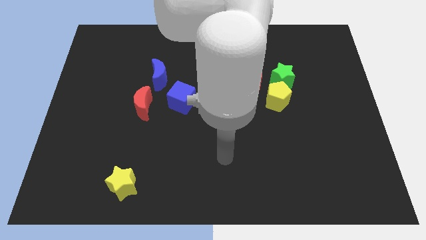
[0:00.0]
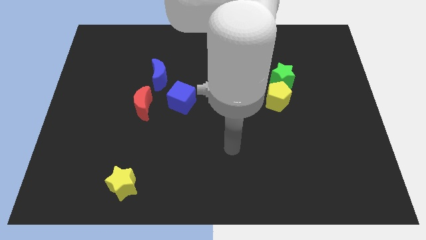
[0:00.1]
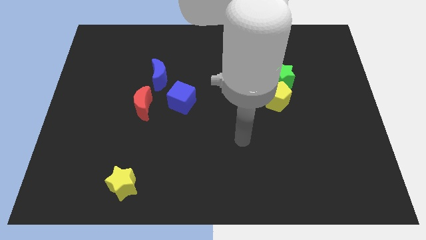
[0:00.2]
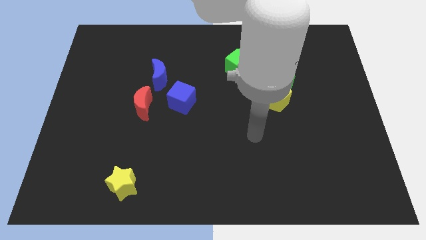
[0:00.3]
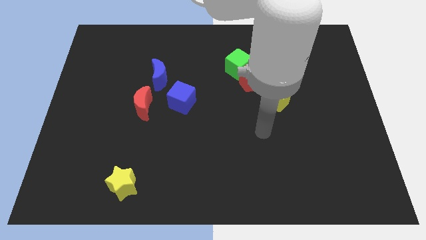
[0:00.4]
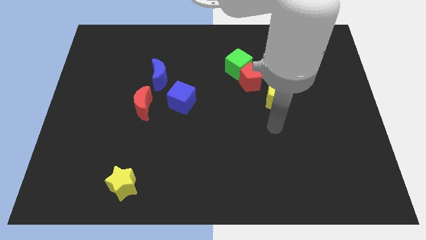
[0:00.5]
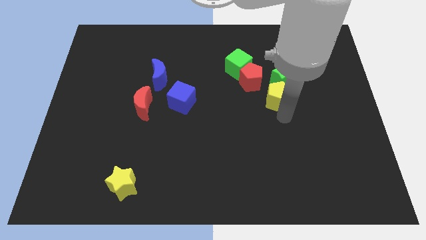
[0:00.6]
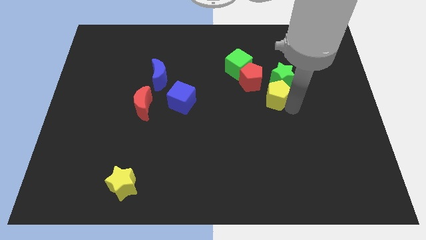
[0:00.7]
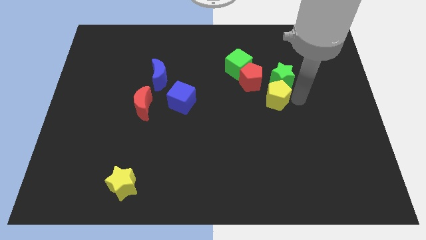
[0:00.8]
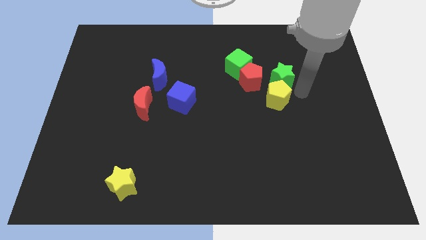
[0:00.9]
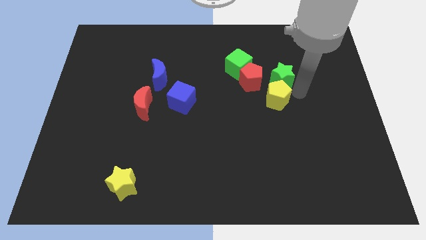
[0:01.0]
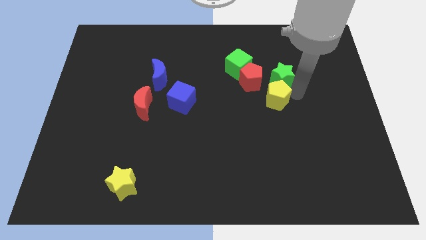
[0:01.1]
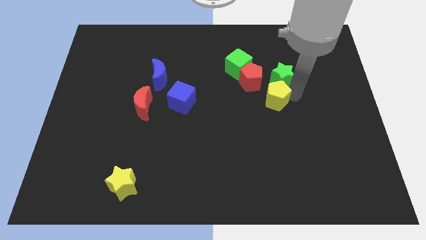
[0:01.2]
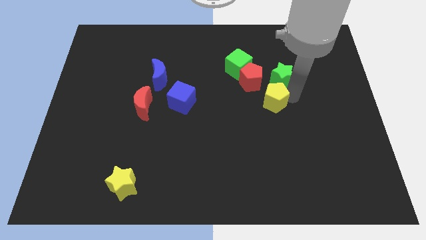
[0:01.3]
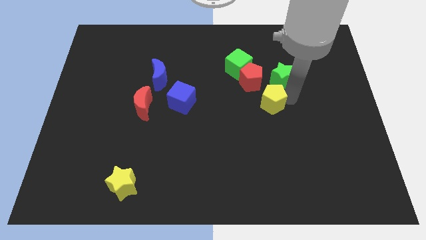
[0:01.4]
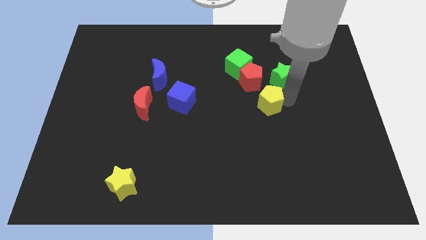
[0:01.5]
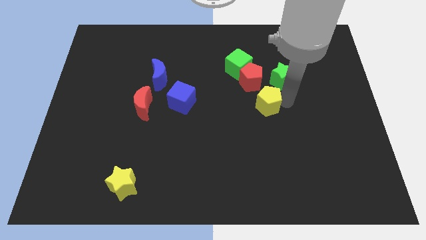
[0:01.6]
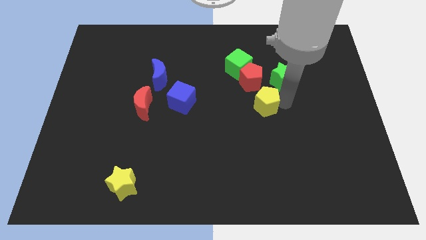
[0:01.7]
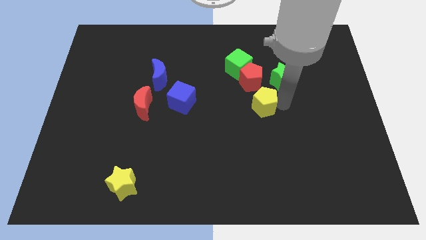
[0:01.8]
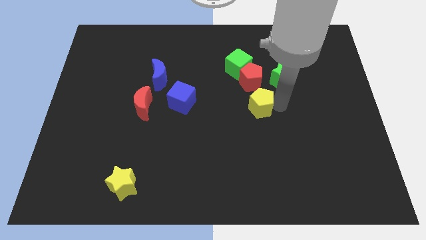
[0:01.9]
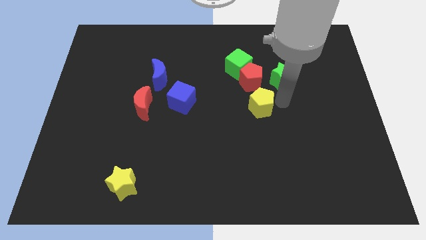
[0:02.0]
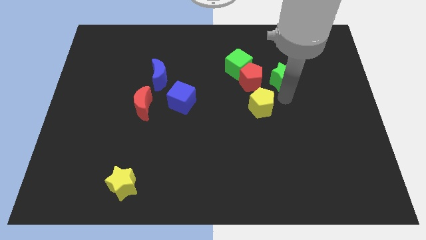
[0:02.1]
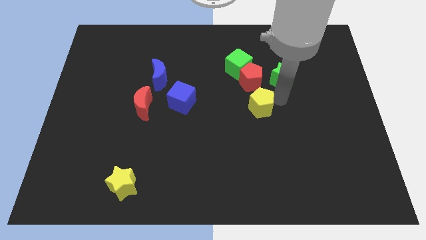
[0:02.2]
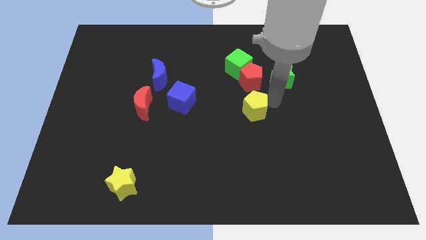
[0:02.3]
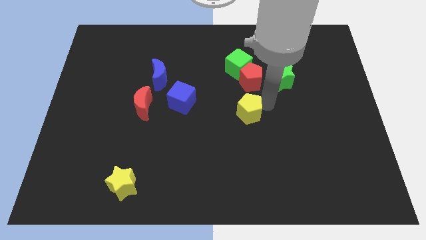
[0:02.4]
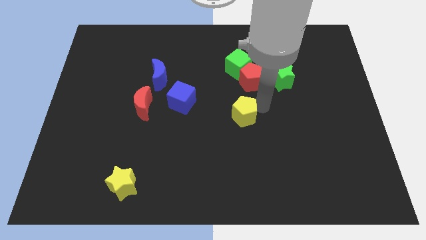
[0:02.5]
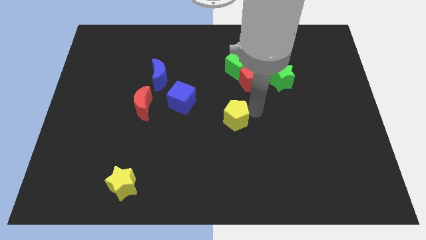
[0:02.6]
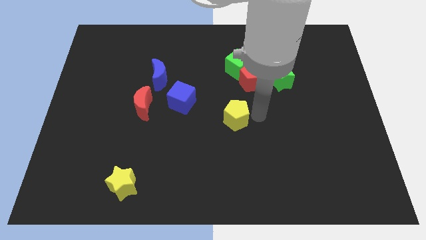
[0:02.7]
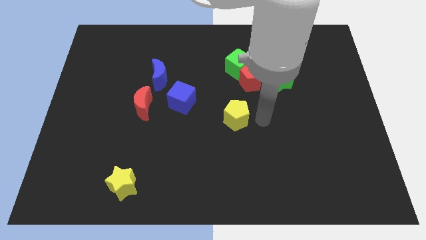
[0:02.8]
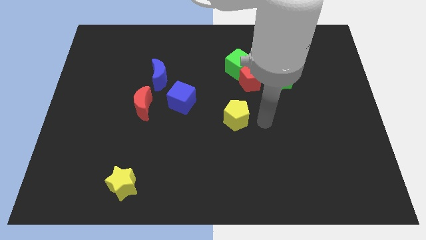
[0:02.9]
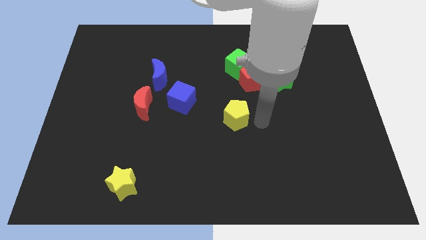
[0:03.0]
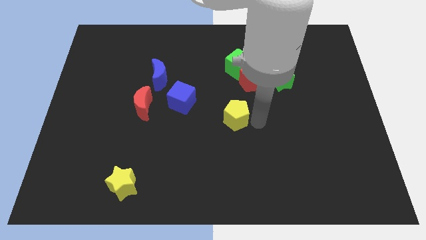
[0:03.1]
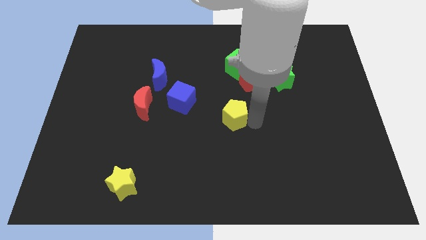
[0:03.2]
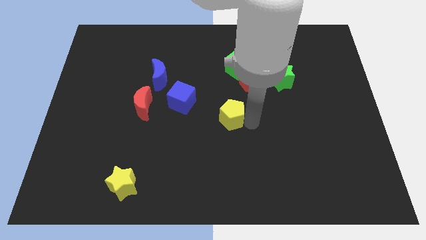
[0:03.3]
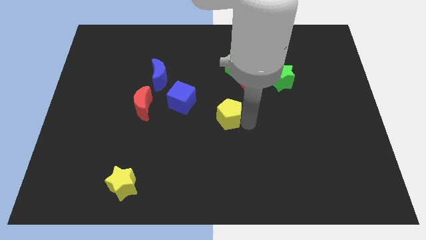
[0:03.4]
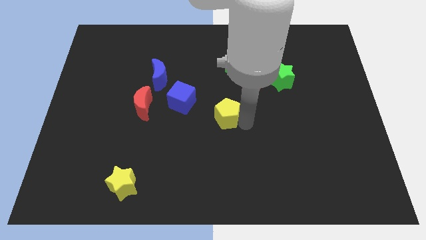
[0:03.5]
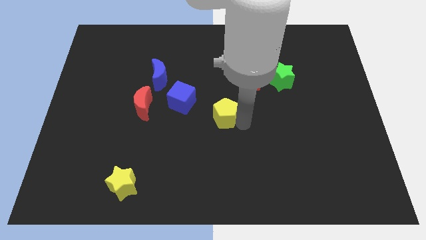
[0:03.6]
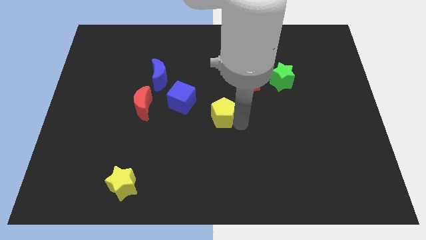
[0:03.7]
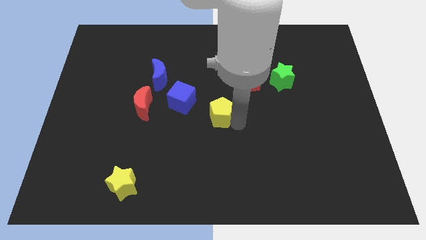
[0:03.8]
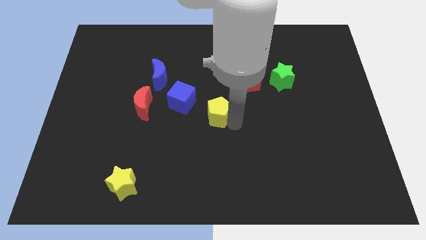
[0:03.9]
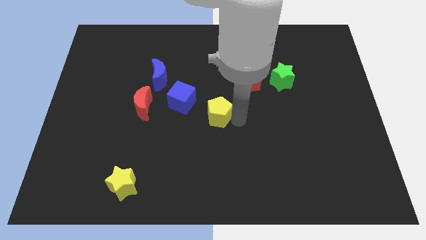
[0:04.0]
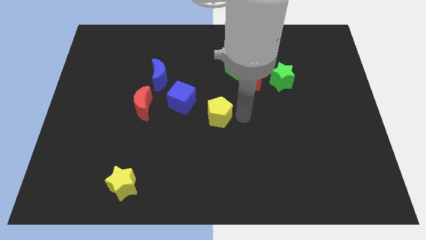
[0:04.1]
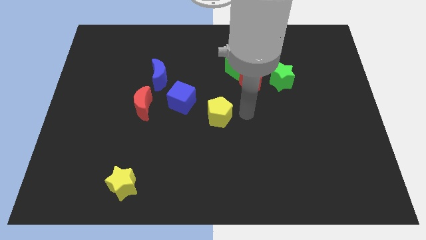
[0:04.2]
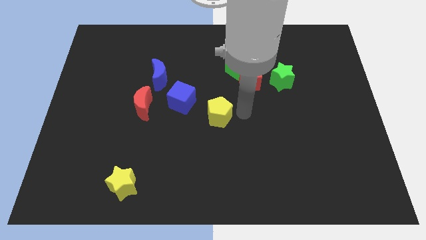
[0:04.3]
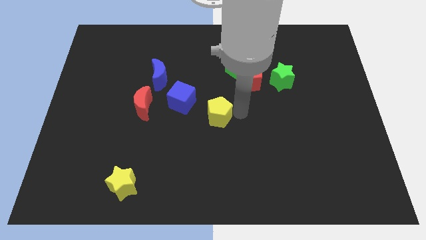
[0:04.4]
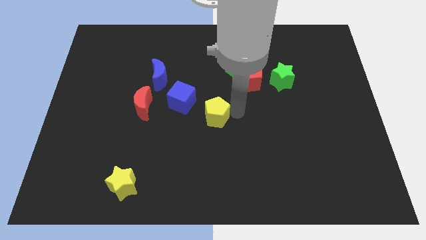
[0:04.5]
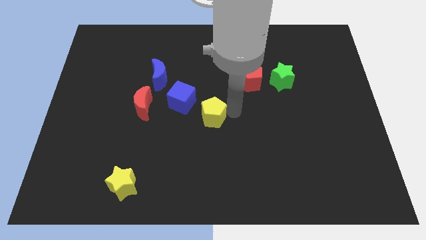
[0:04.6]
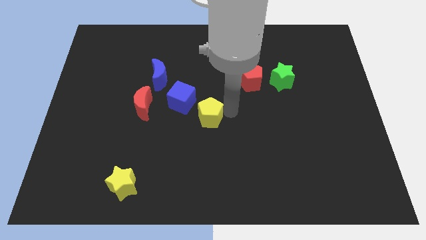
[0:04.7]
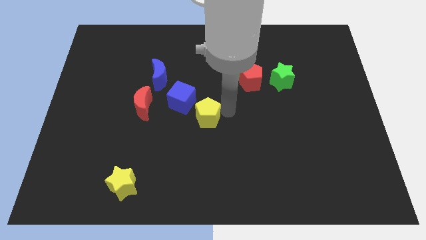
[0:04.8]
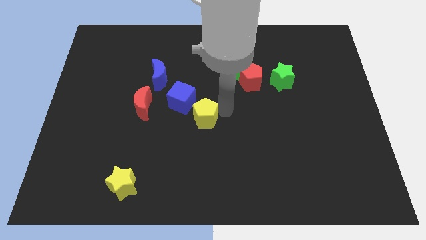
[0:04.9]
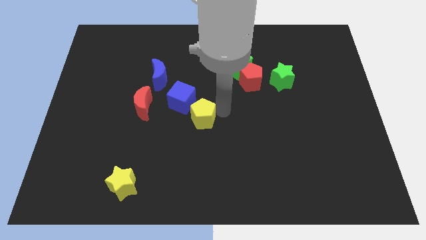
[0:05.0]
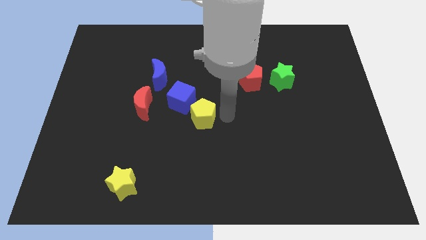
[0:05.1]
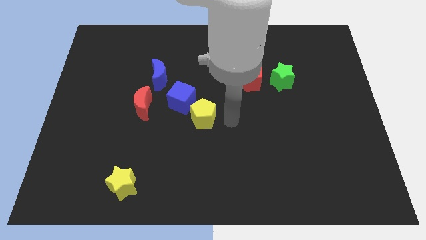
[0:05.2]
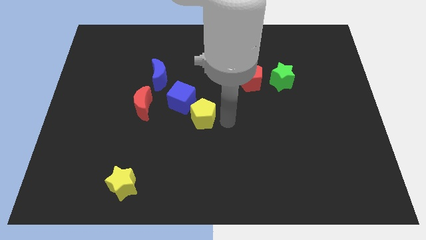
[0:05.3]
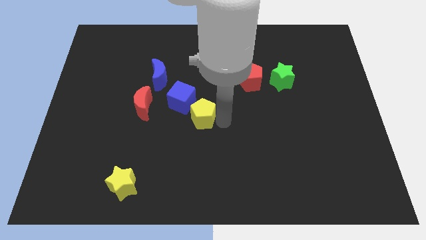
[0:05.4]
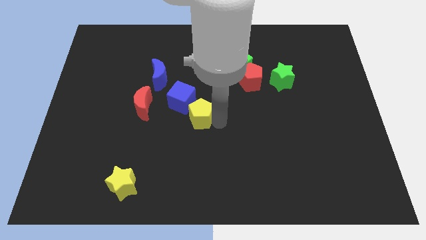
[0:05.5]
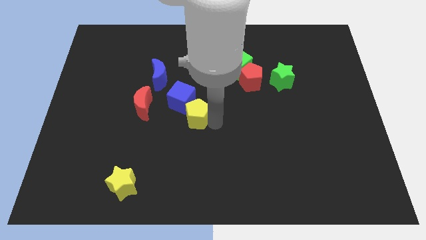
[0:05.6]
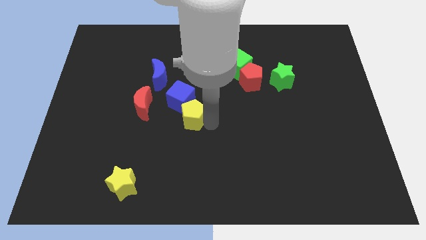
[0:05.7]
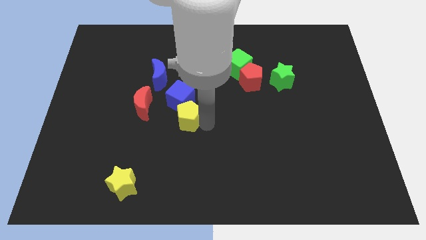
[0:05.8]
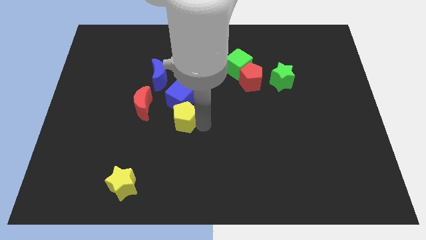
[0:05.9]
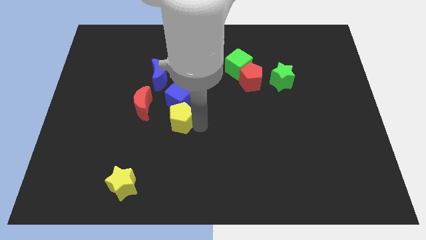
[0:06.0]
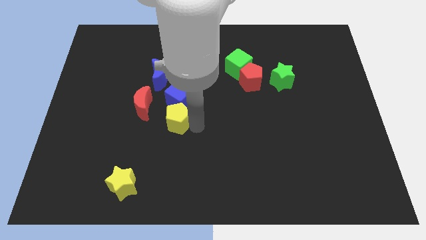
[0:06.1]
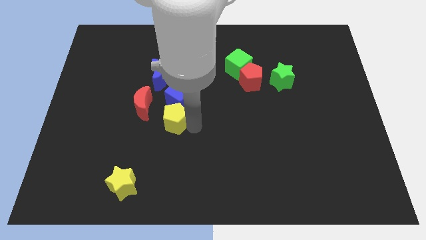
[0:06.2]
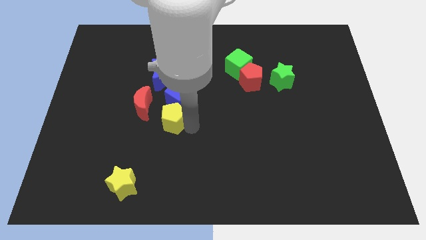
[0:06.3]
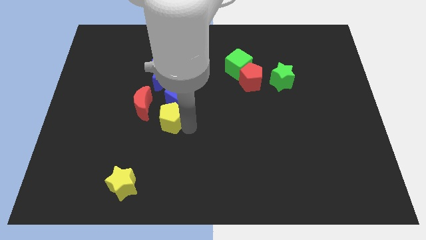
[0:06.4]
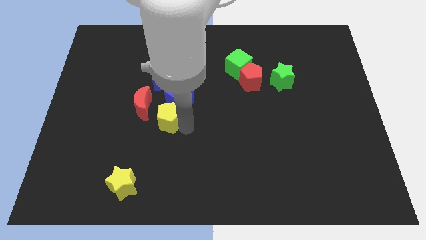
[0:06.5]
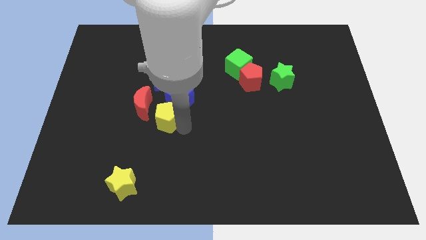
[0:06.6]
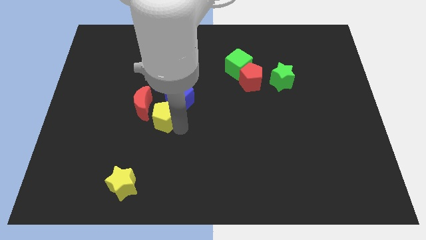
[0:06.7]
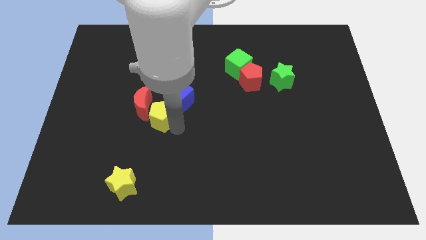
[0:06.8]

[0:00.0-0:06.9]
put the yellow pentagon close to the red moon

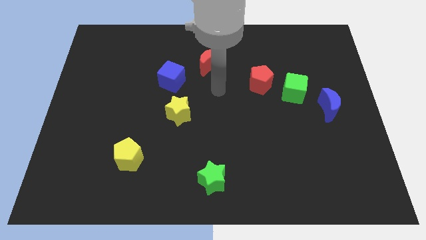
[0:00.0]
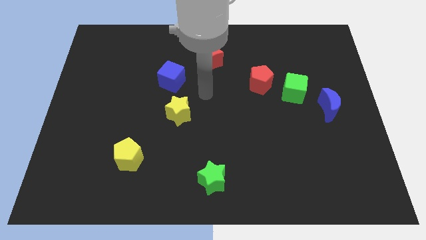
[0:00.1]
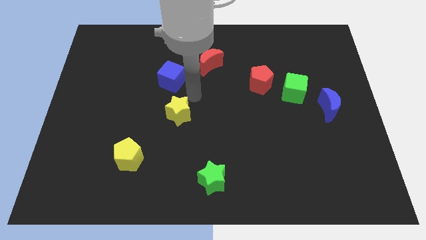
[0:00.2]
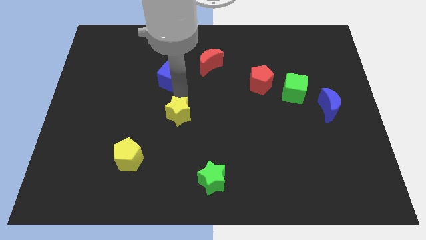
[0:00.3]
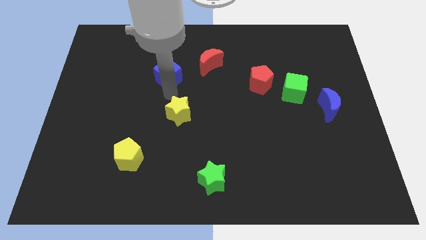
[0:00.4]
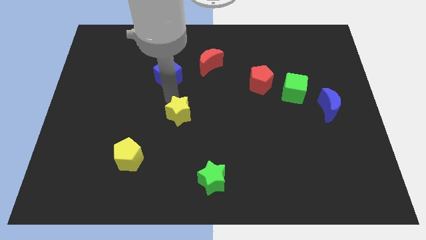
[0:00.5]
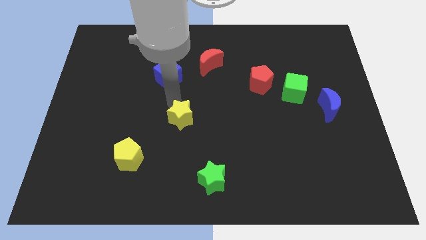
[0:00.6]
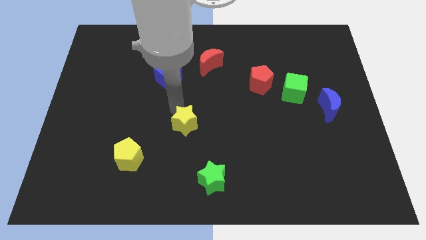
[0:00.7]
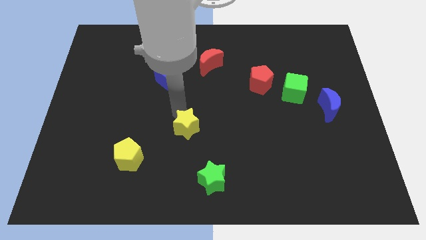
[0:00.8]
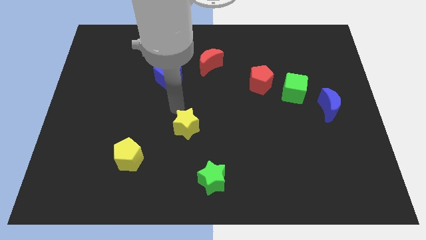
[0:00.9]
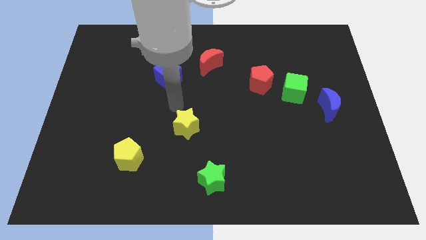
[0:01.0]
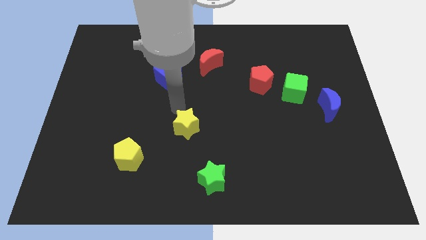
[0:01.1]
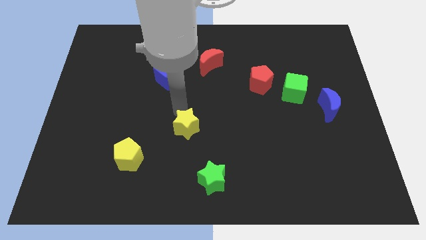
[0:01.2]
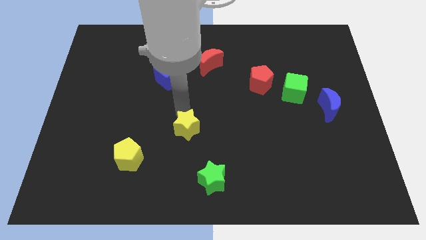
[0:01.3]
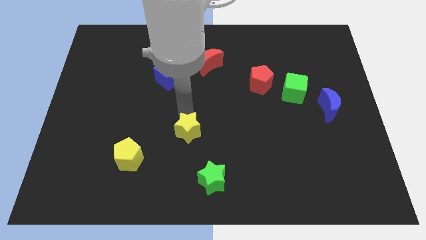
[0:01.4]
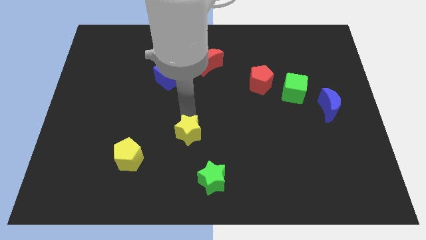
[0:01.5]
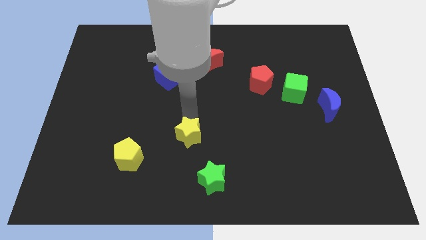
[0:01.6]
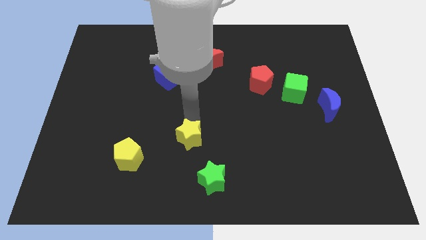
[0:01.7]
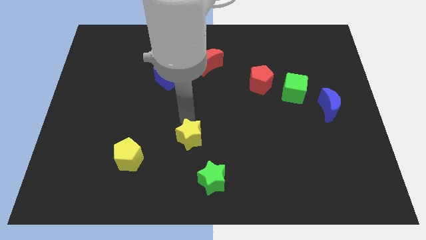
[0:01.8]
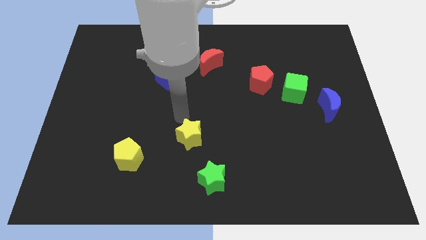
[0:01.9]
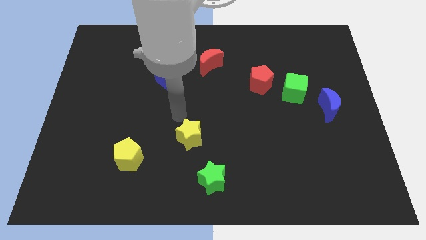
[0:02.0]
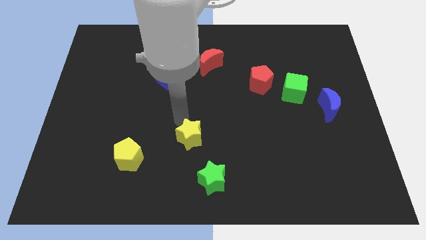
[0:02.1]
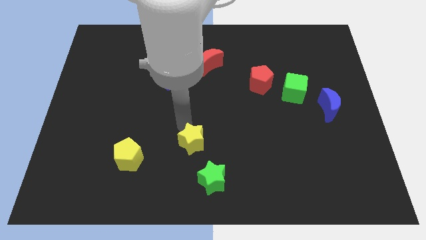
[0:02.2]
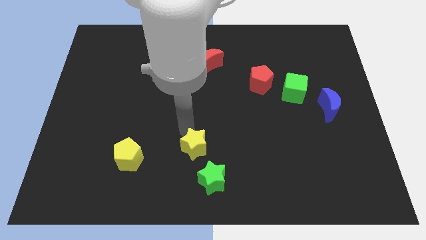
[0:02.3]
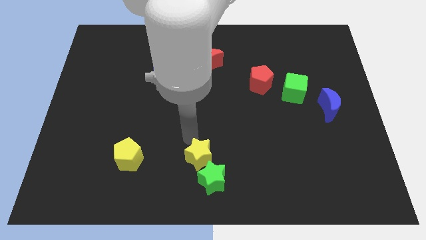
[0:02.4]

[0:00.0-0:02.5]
slide the yellow star to the green star
